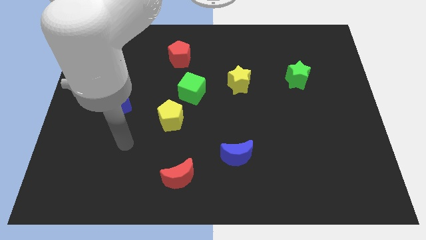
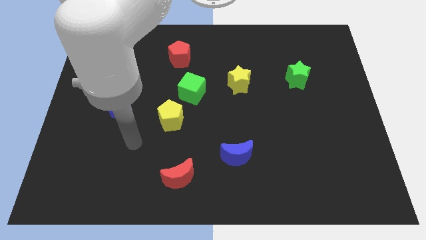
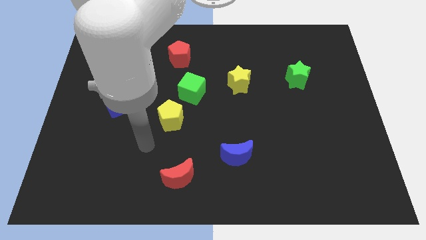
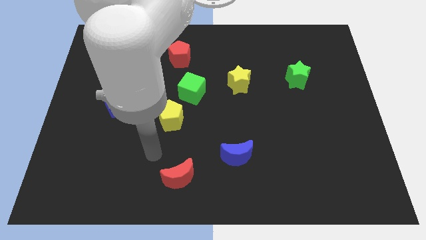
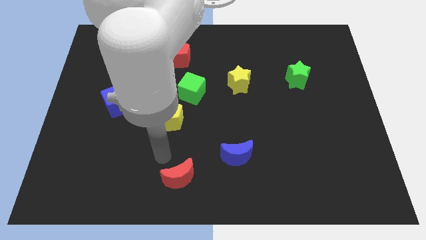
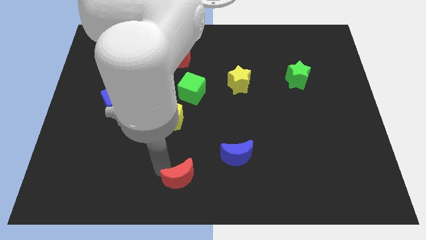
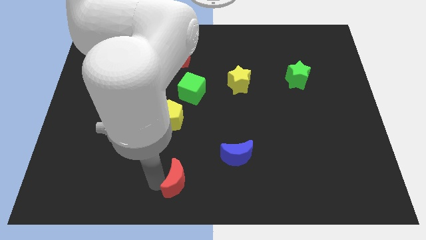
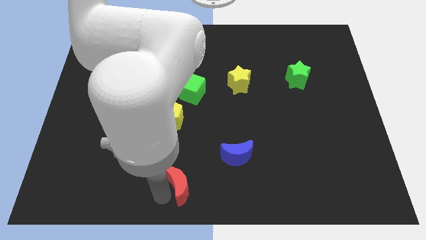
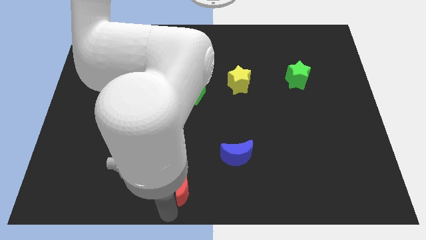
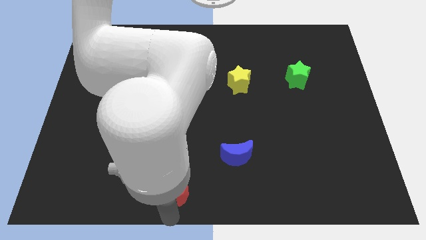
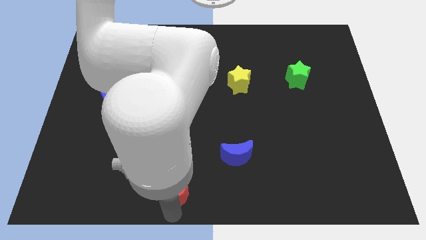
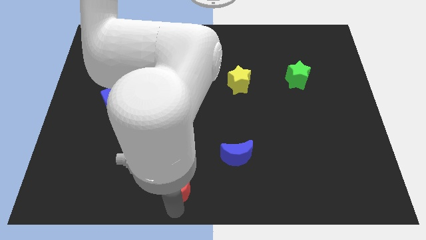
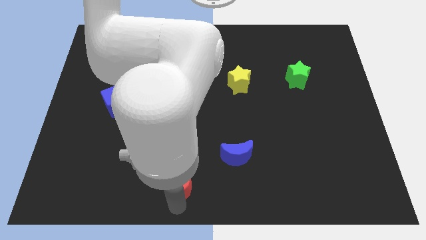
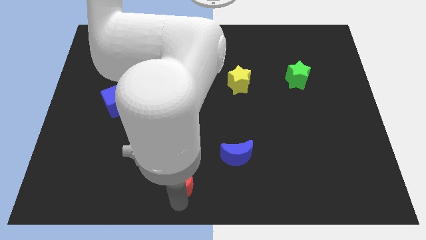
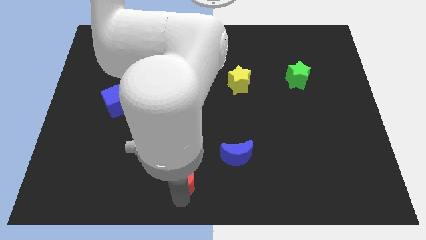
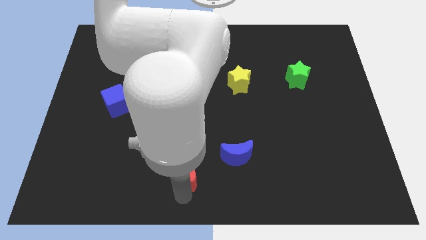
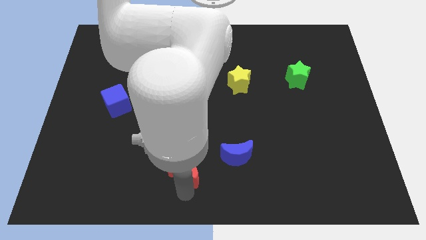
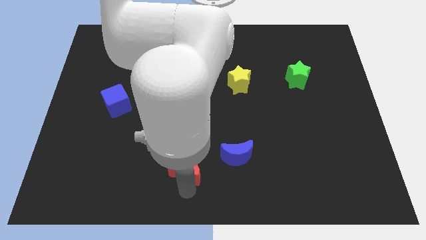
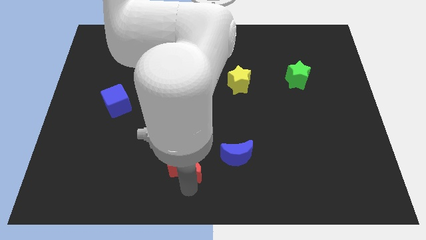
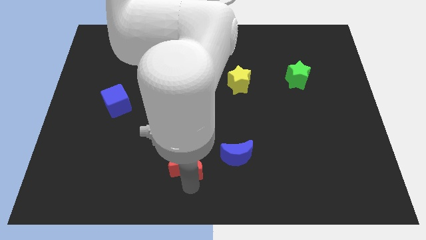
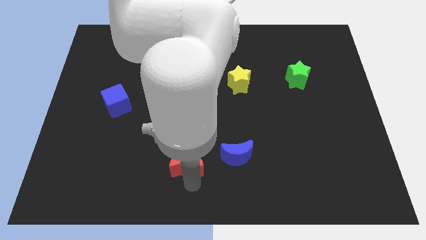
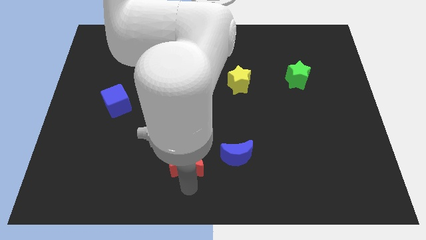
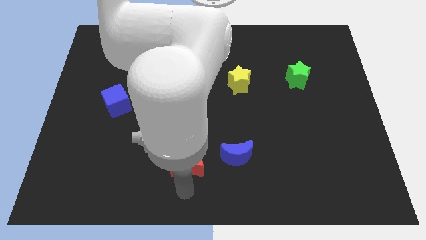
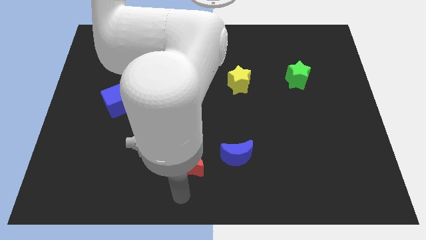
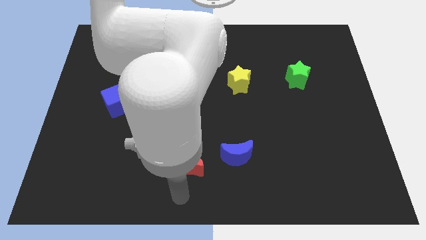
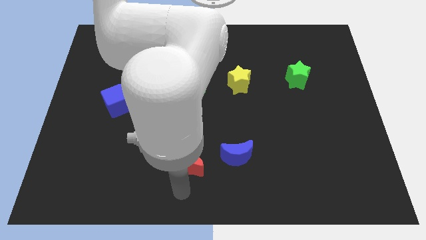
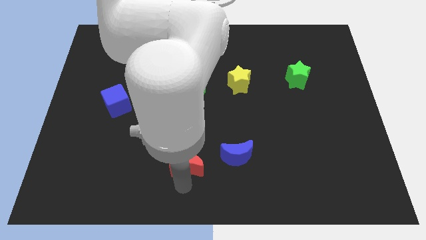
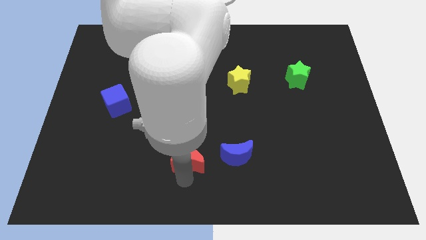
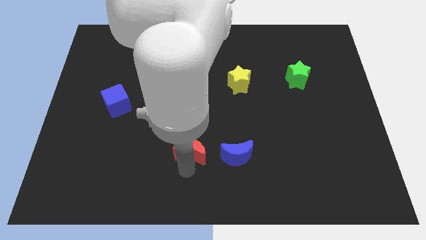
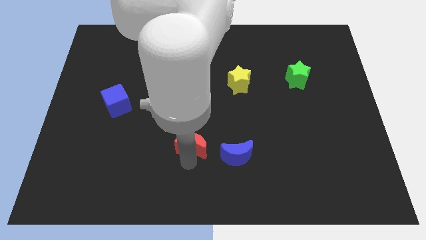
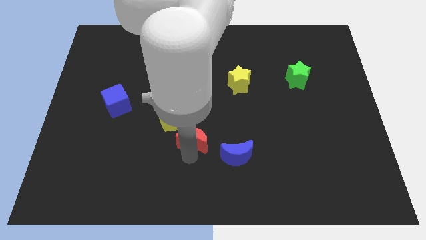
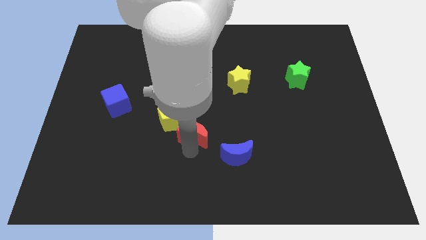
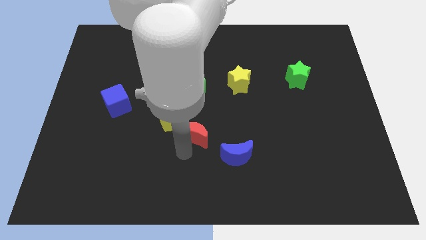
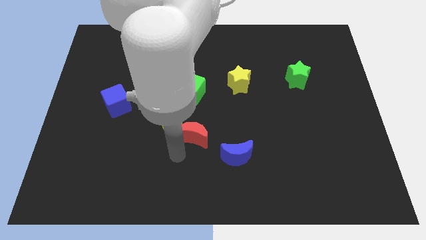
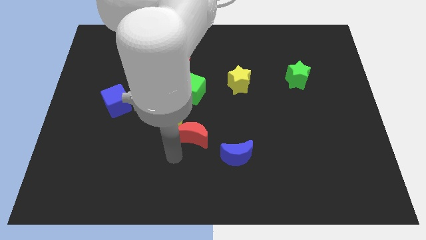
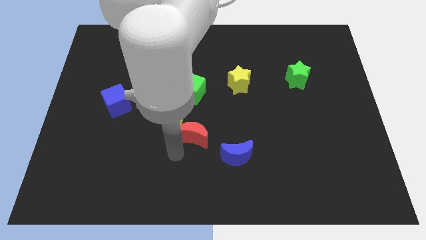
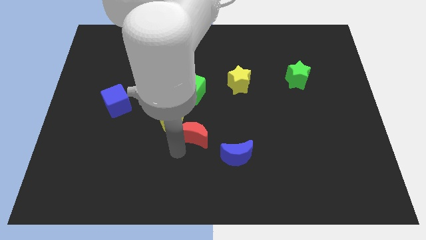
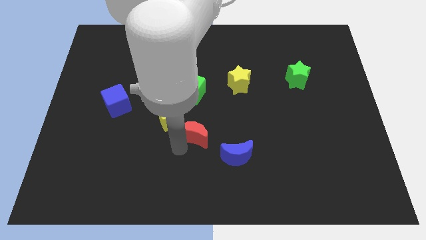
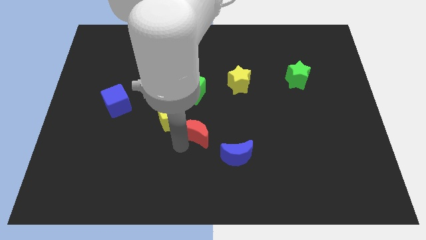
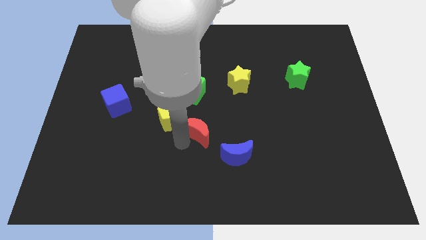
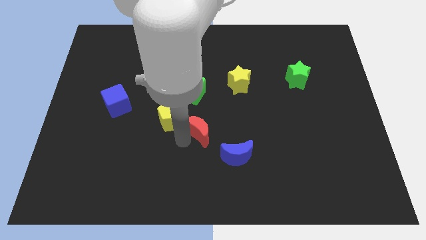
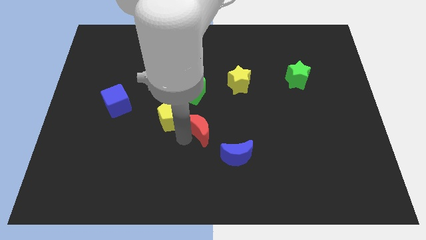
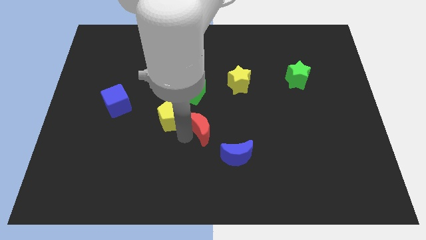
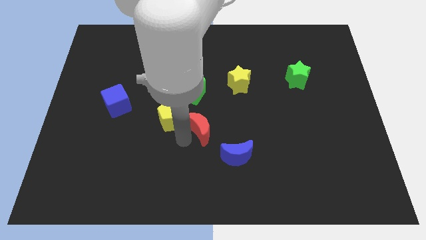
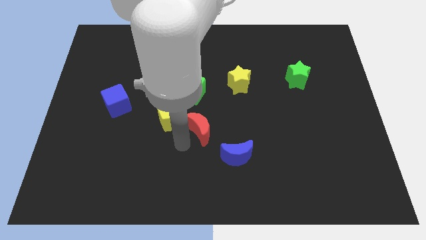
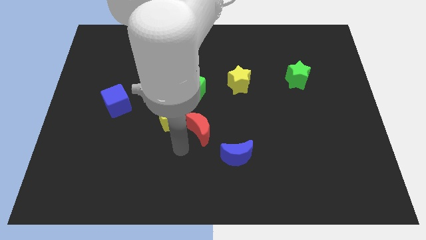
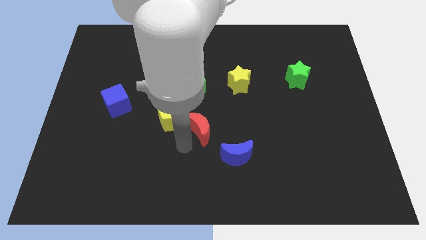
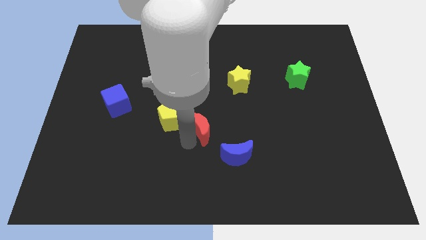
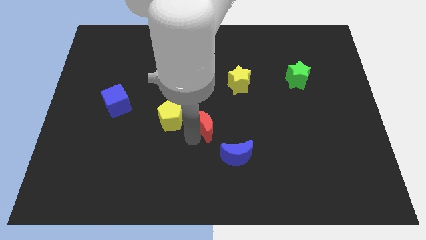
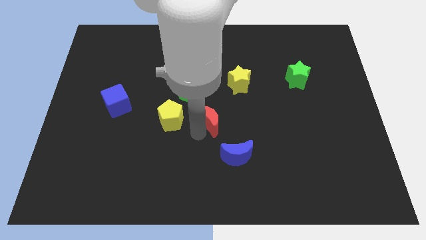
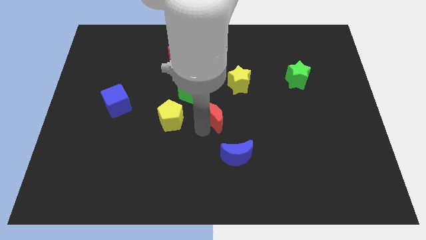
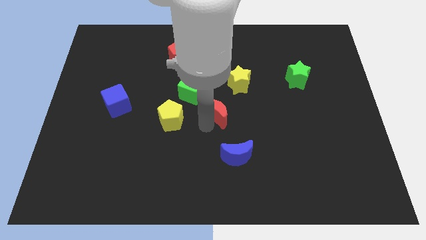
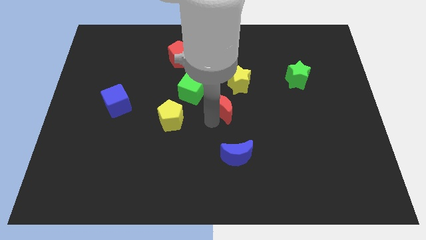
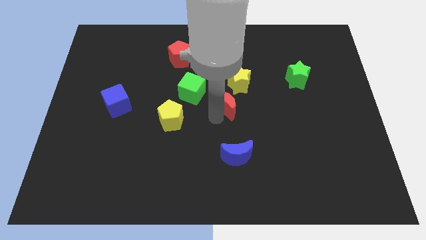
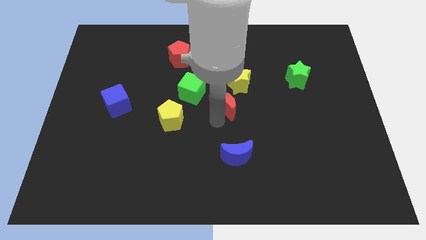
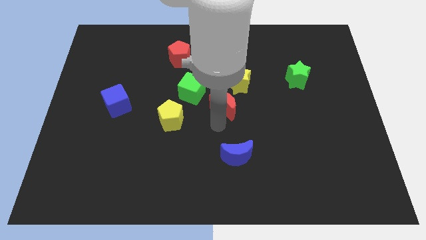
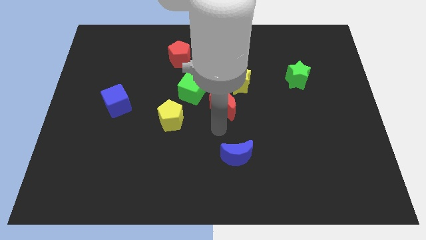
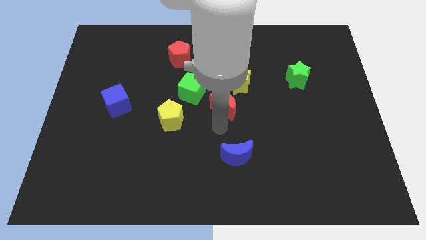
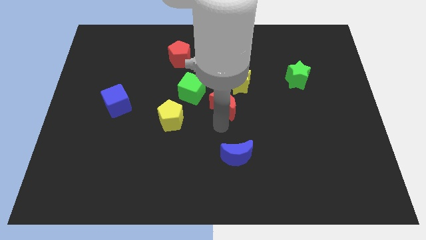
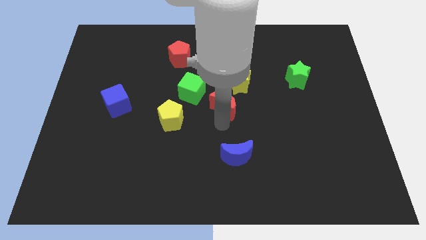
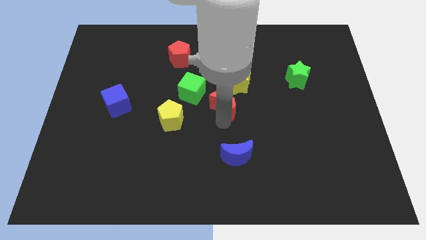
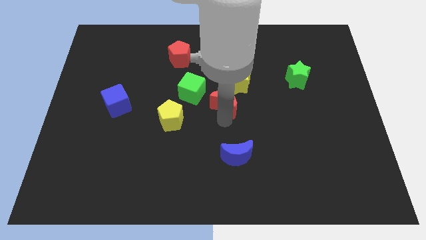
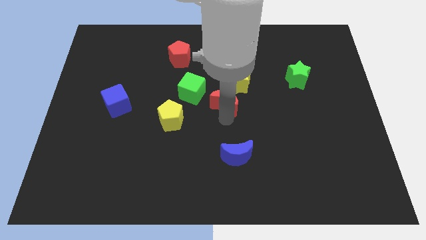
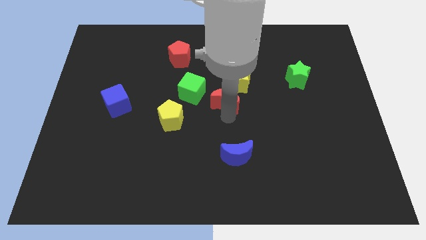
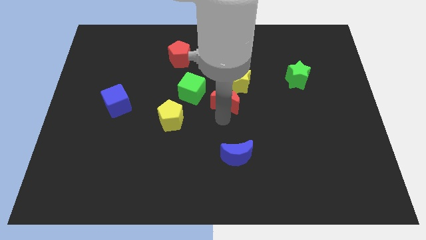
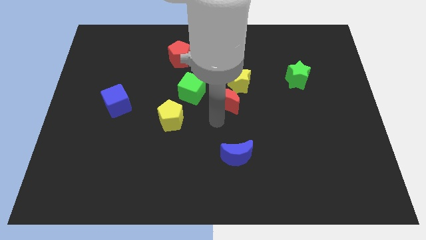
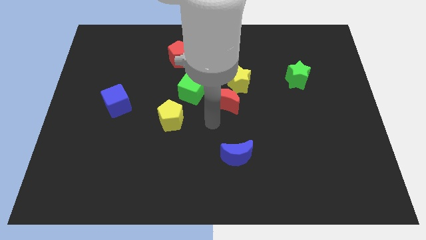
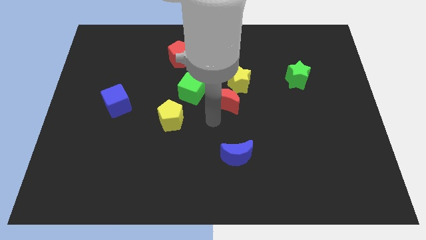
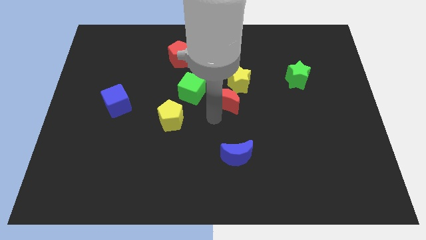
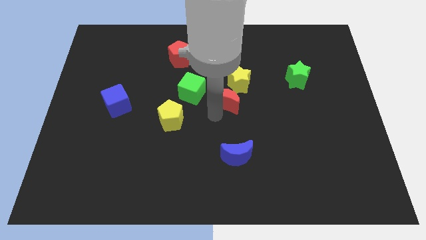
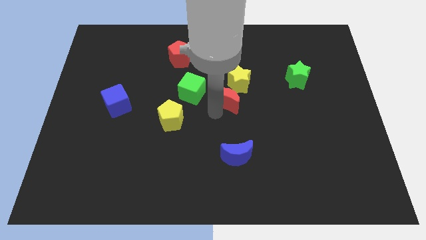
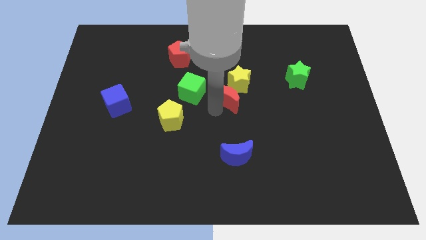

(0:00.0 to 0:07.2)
push the red moon towards the yellow star
